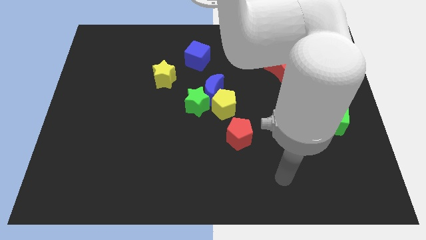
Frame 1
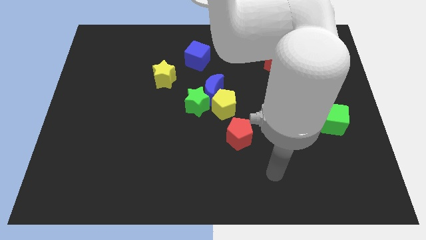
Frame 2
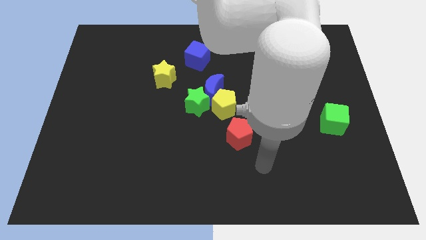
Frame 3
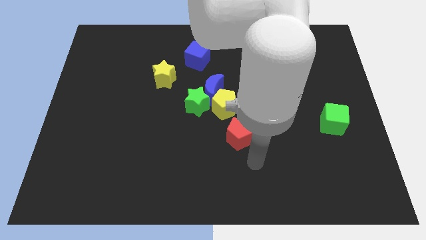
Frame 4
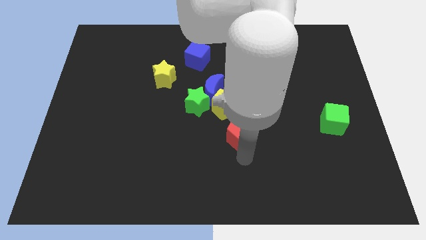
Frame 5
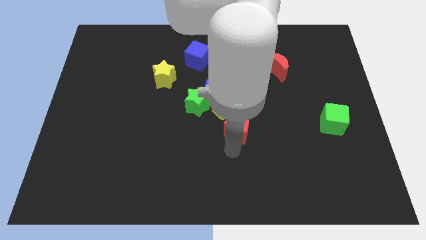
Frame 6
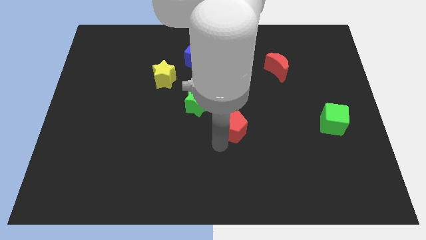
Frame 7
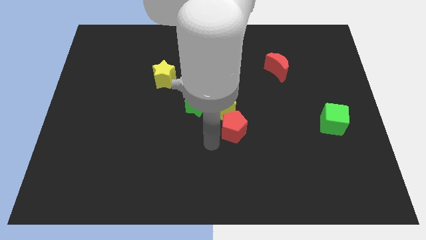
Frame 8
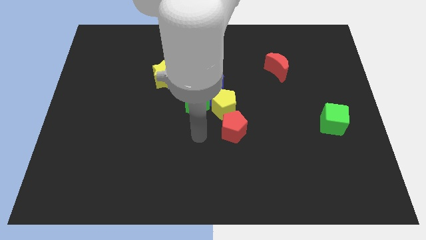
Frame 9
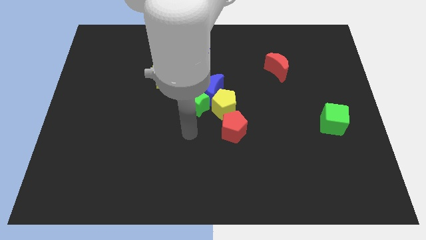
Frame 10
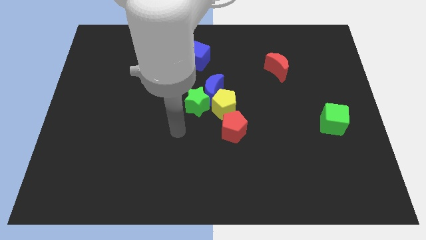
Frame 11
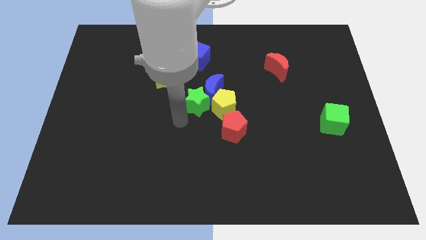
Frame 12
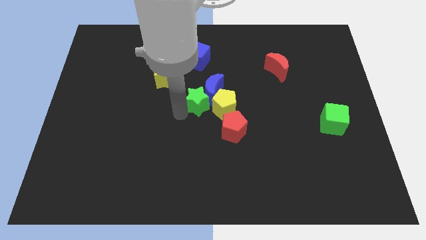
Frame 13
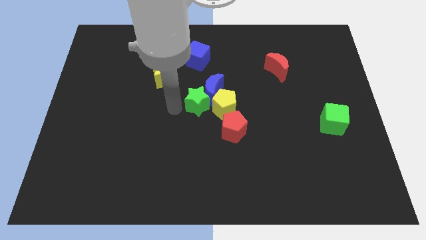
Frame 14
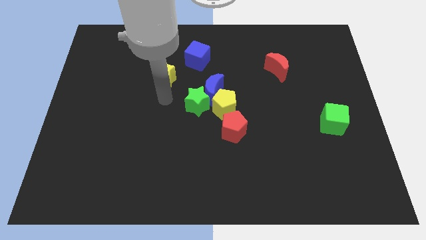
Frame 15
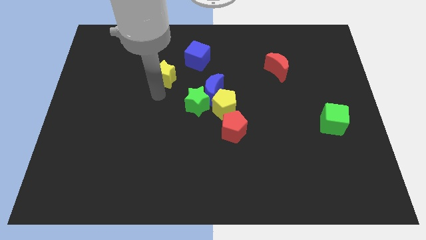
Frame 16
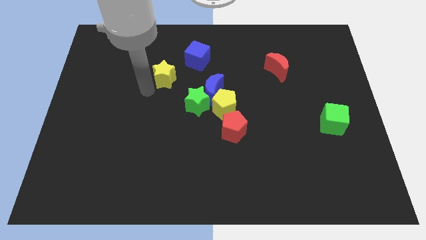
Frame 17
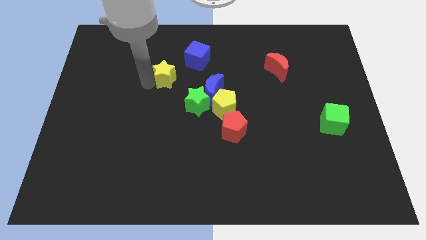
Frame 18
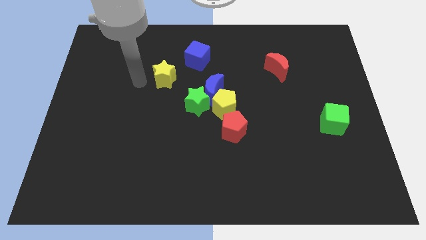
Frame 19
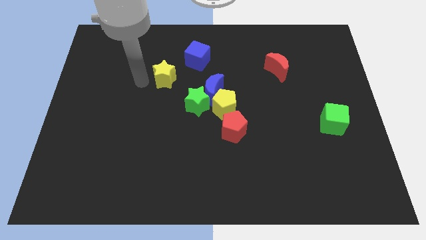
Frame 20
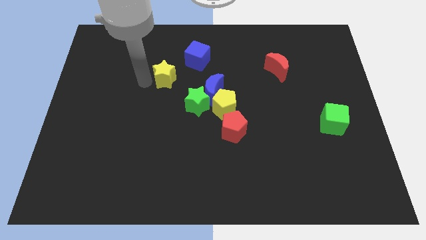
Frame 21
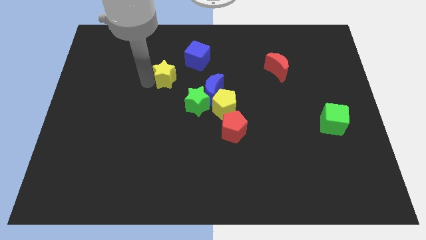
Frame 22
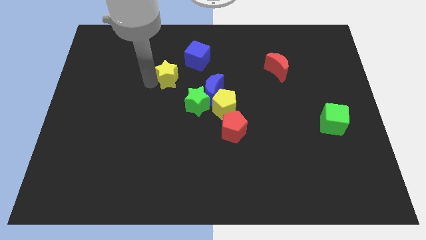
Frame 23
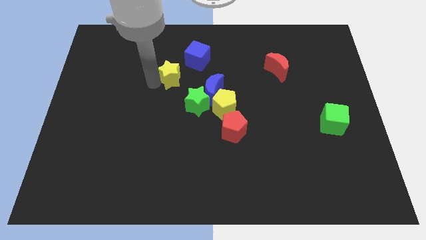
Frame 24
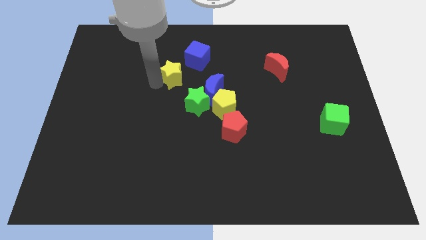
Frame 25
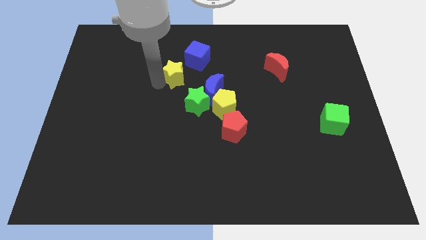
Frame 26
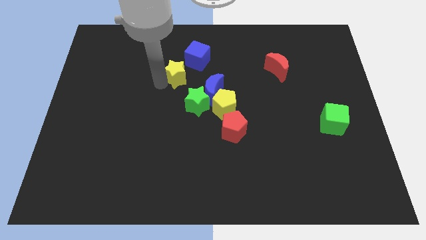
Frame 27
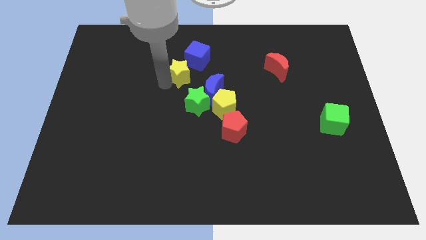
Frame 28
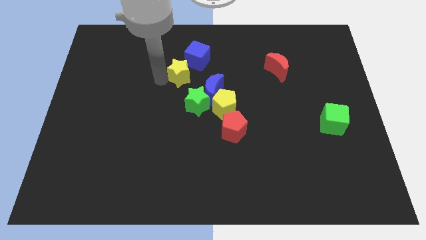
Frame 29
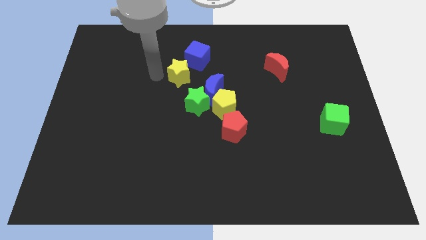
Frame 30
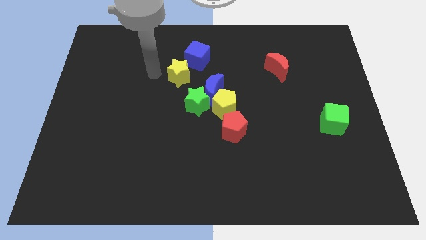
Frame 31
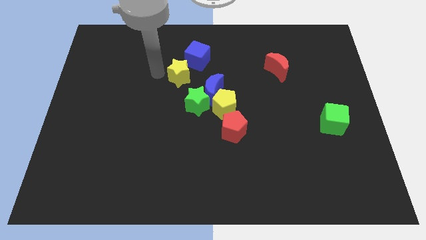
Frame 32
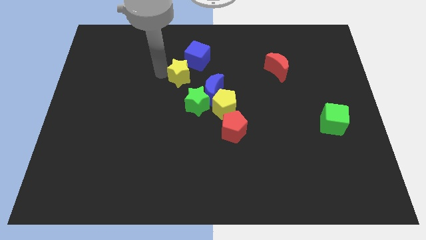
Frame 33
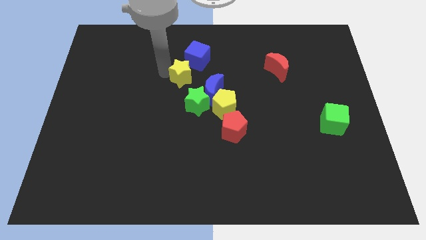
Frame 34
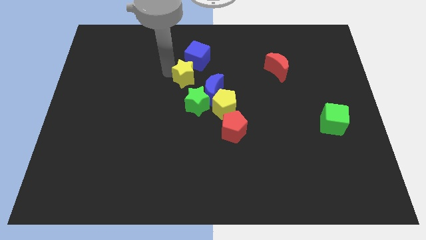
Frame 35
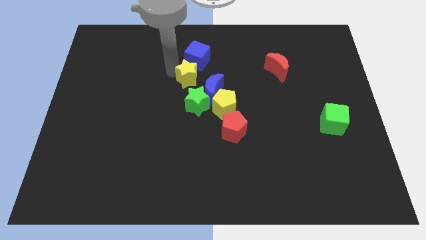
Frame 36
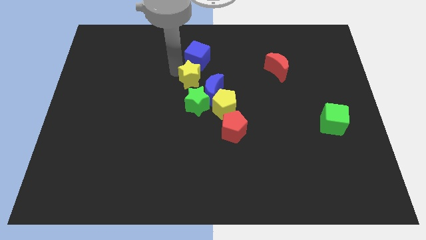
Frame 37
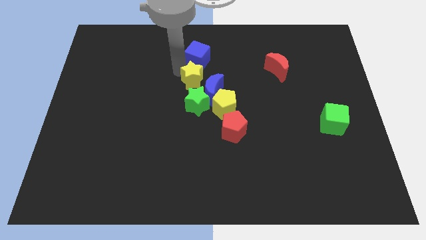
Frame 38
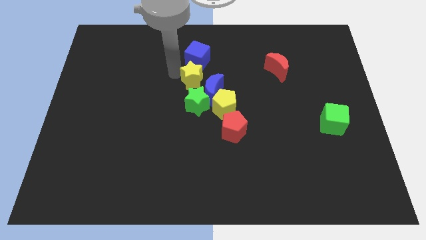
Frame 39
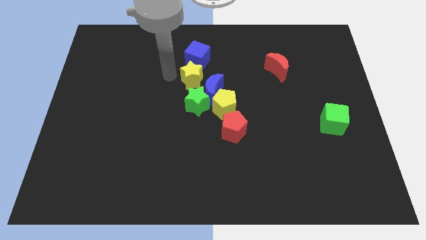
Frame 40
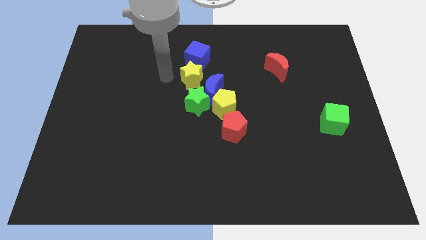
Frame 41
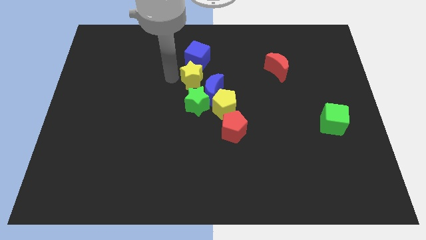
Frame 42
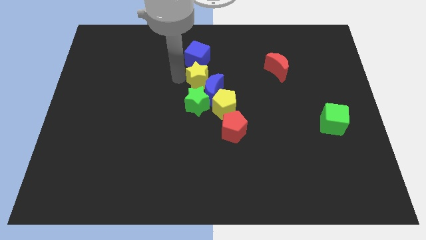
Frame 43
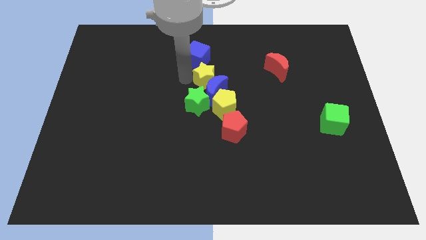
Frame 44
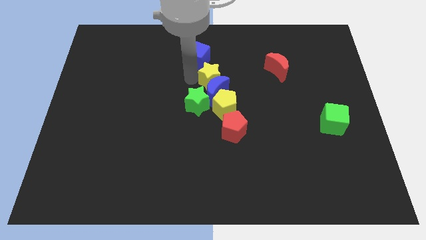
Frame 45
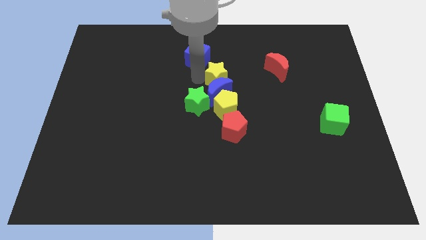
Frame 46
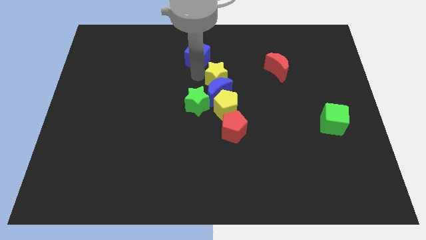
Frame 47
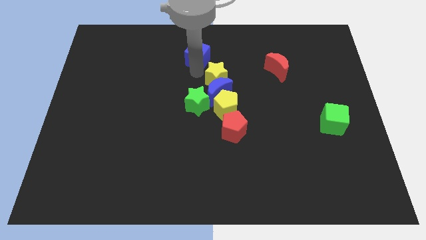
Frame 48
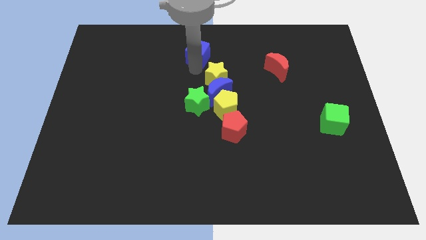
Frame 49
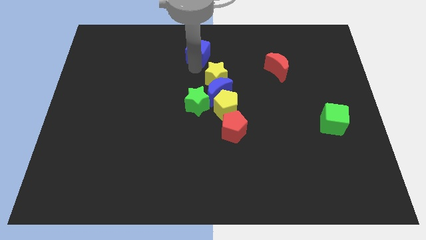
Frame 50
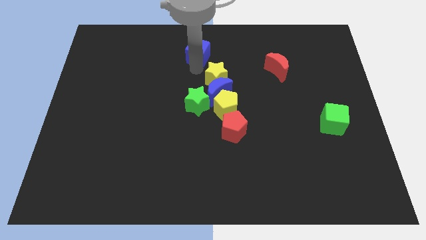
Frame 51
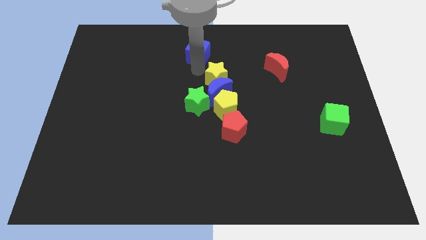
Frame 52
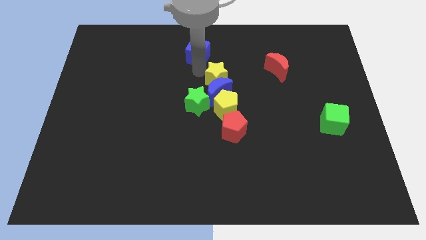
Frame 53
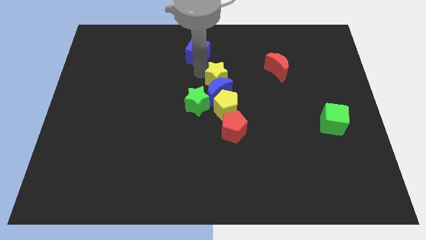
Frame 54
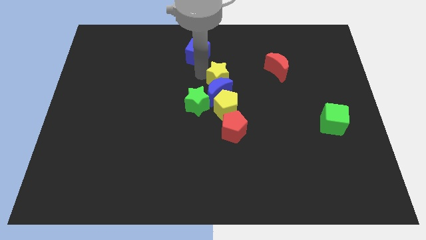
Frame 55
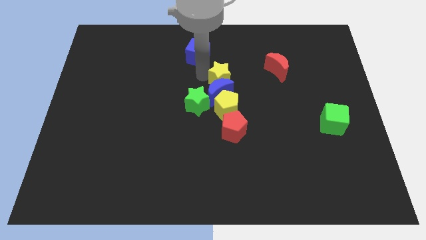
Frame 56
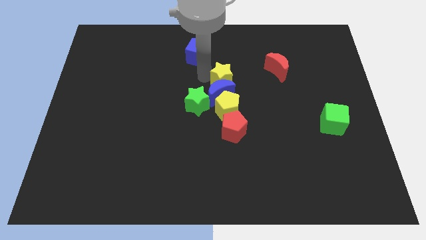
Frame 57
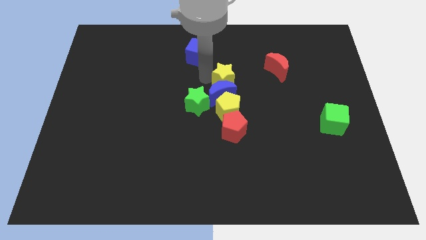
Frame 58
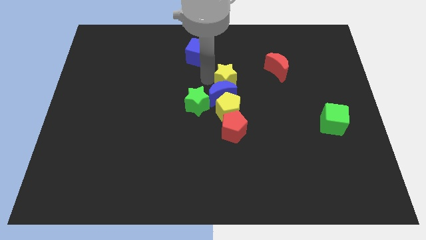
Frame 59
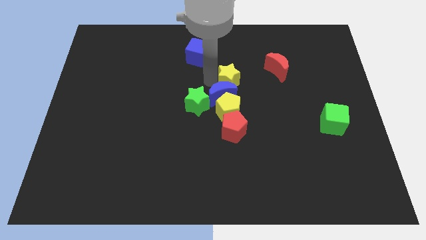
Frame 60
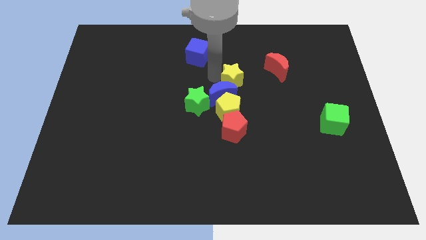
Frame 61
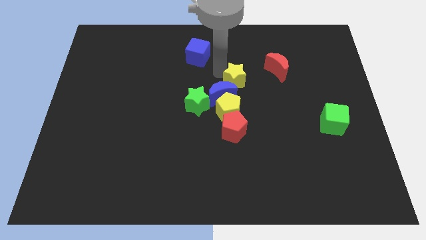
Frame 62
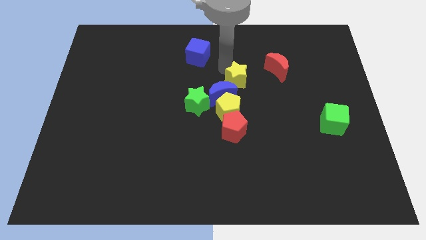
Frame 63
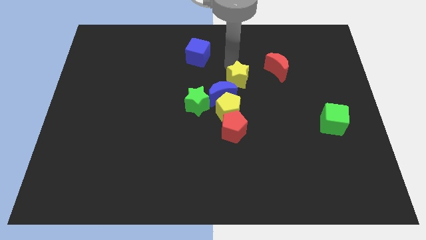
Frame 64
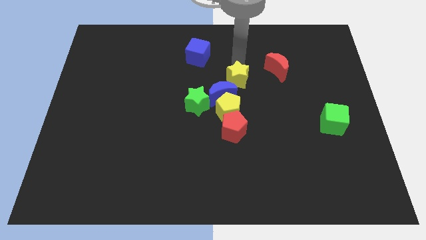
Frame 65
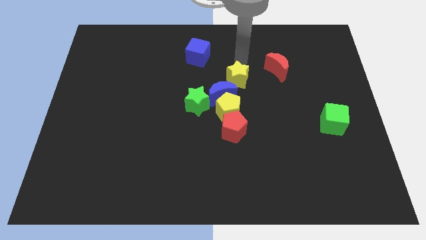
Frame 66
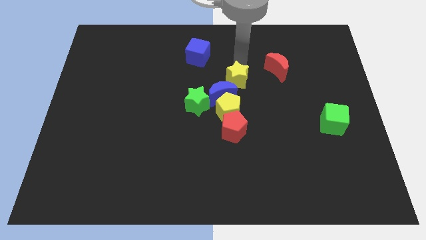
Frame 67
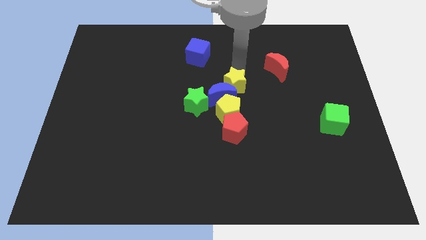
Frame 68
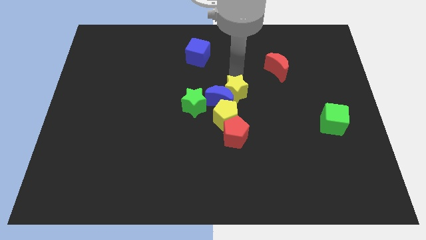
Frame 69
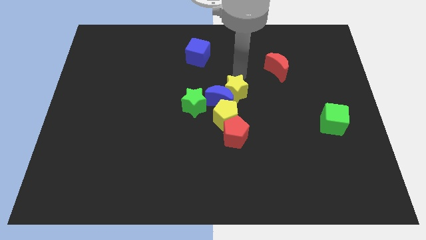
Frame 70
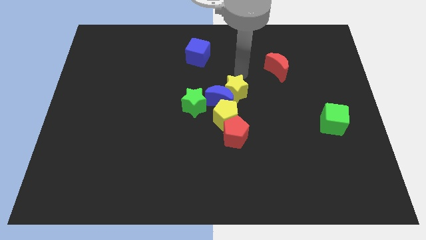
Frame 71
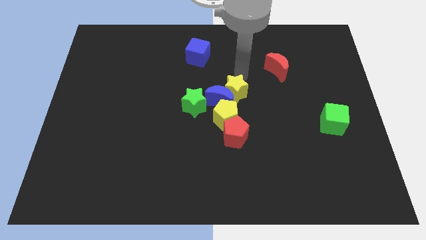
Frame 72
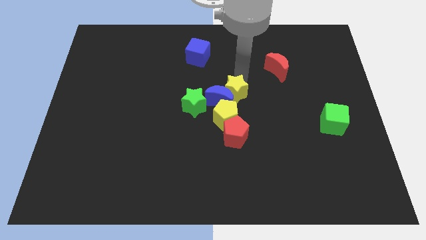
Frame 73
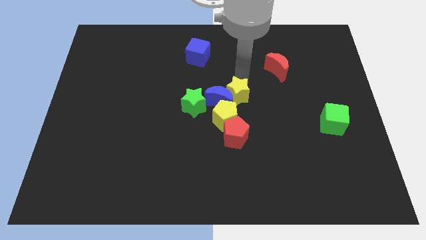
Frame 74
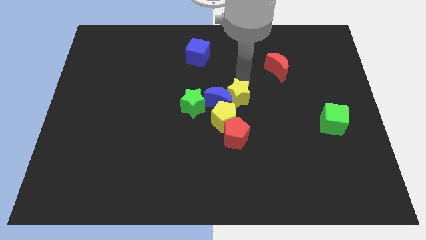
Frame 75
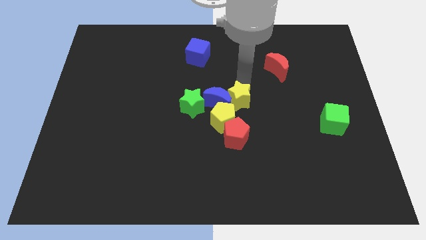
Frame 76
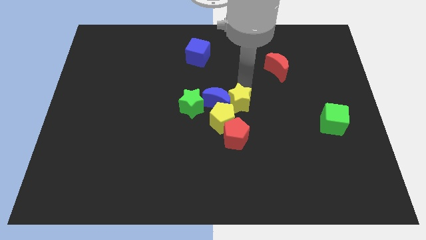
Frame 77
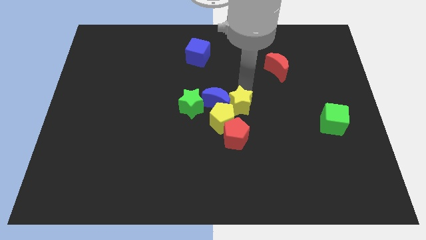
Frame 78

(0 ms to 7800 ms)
push the yellow star next to the yellow pentagon
